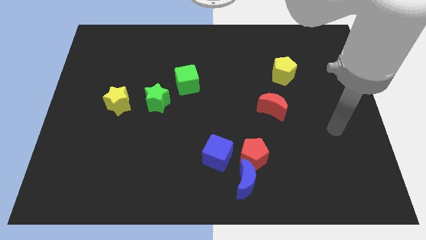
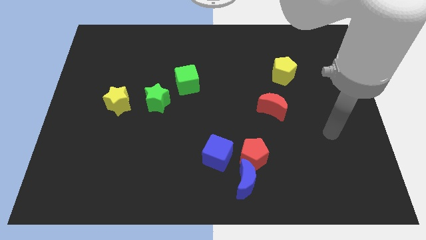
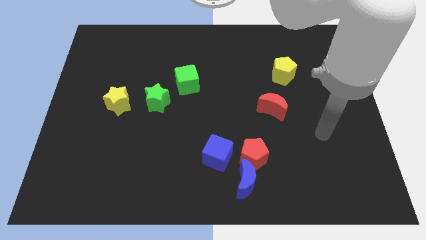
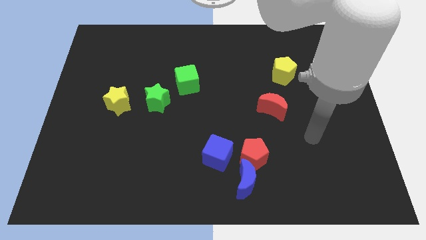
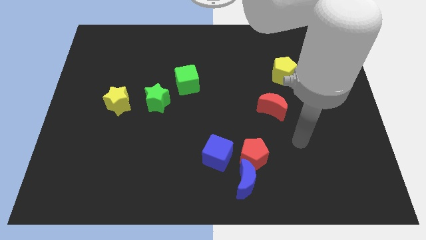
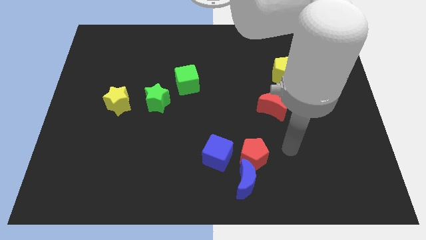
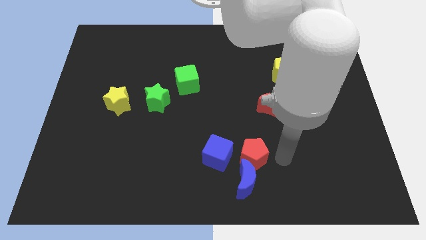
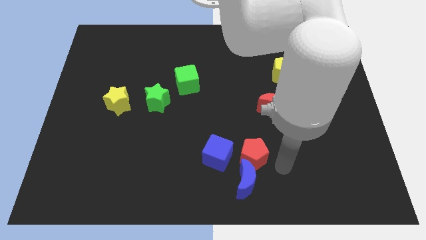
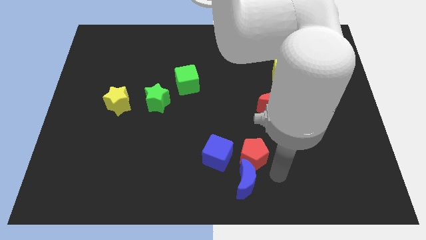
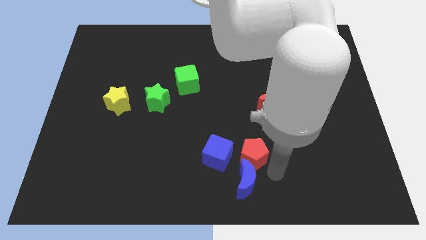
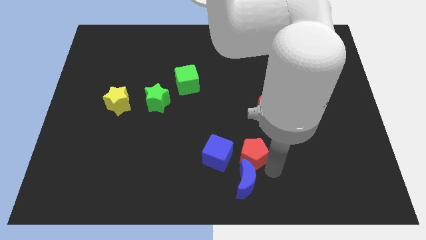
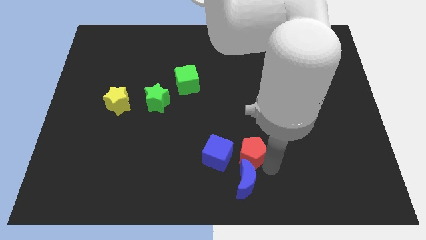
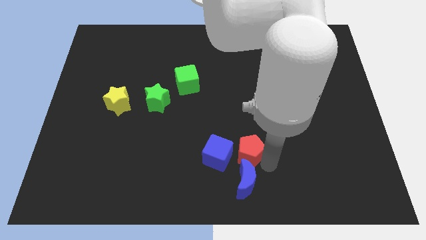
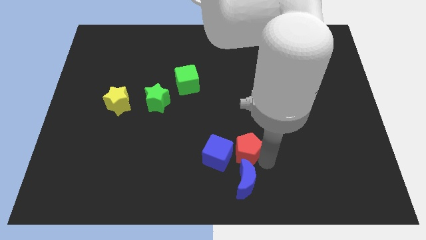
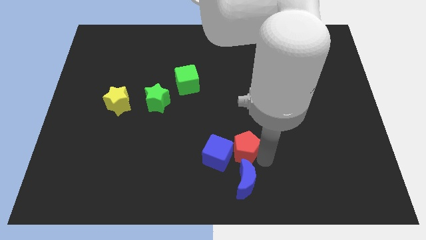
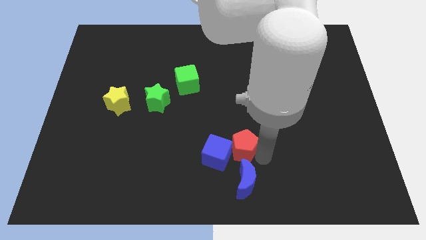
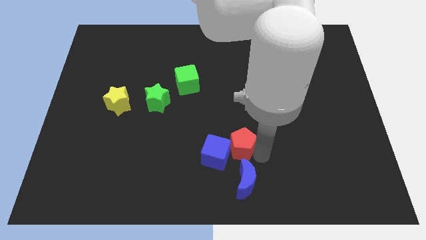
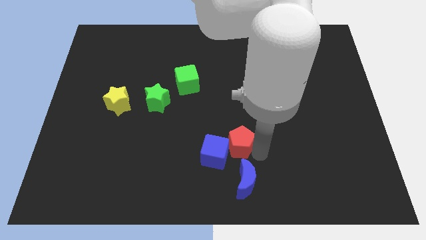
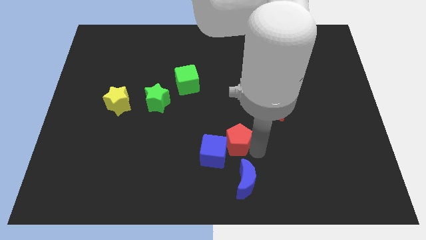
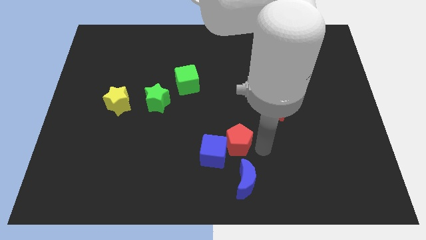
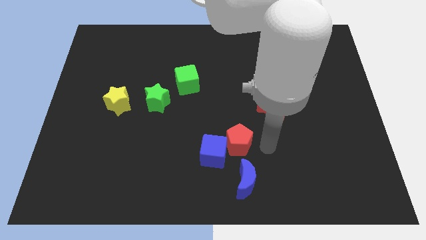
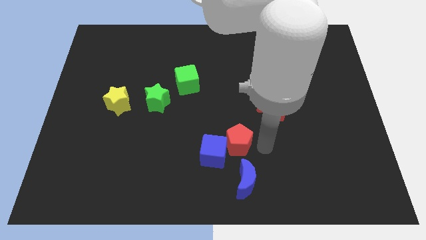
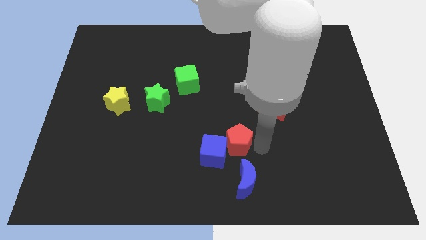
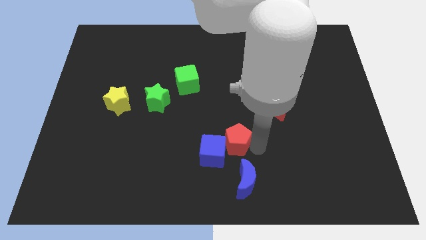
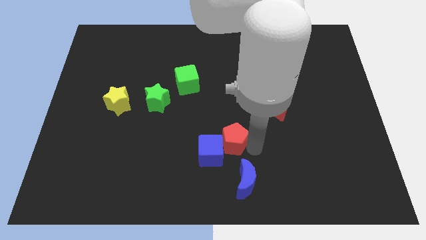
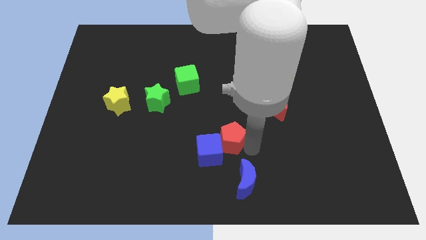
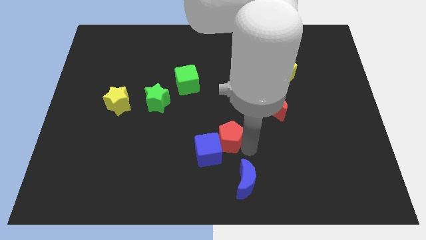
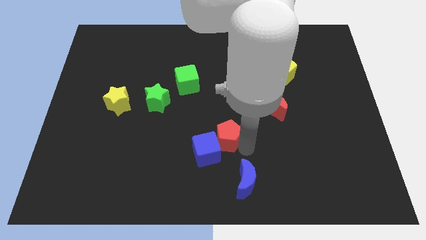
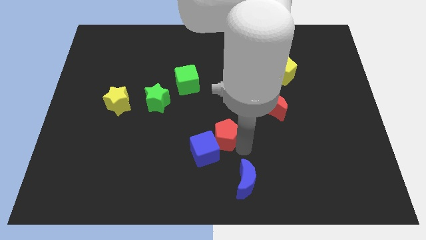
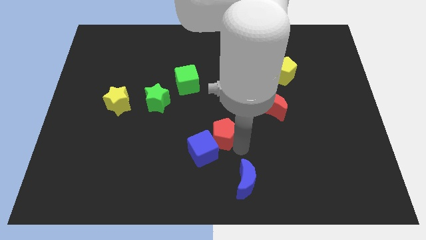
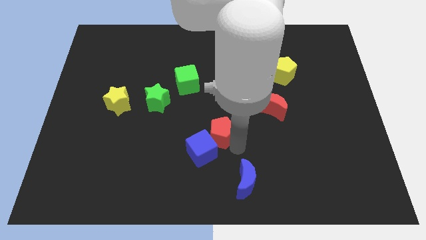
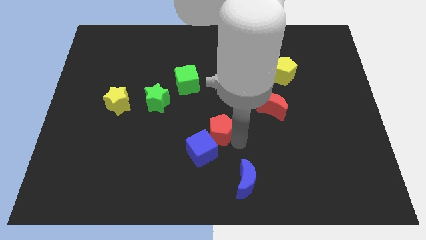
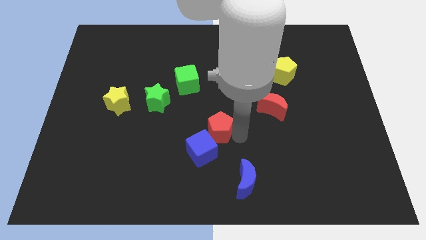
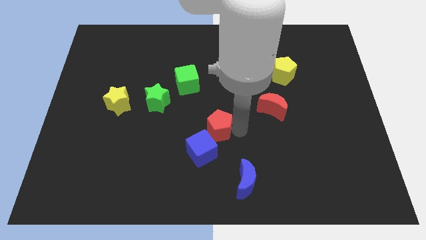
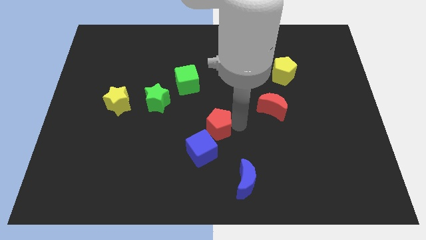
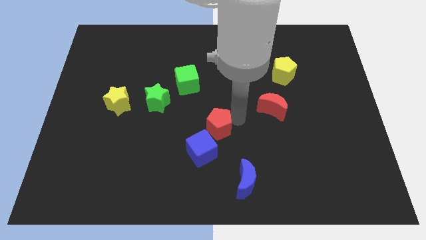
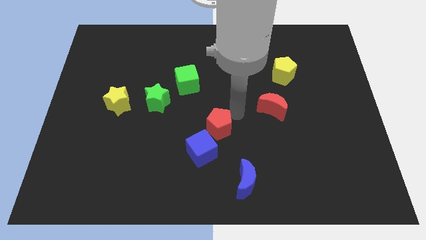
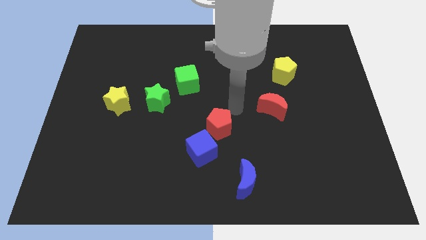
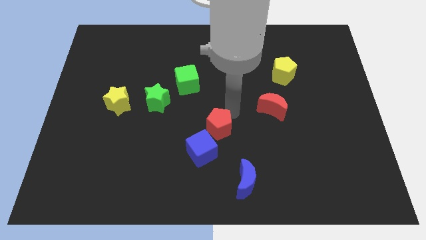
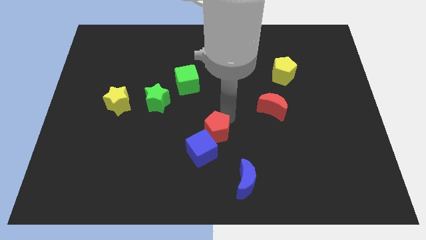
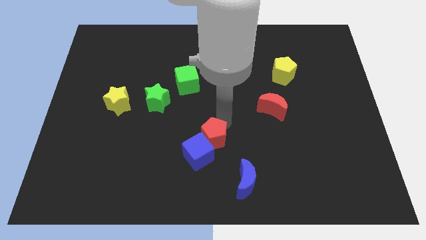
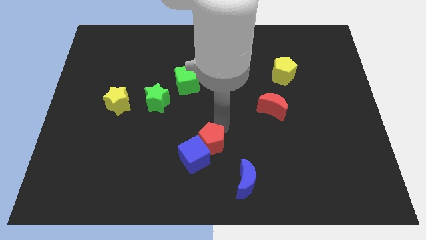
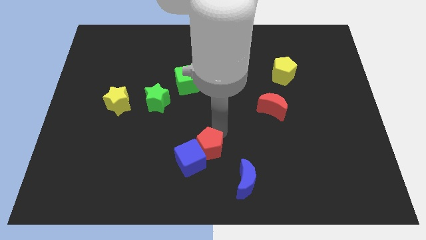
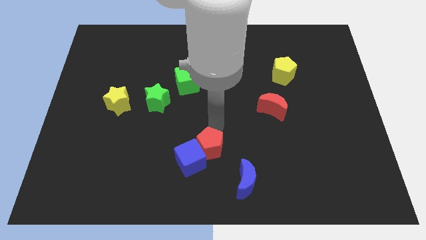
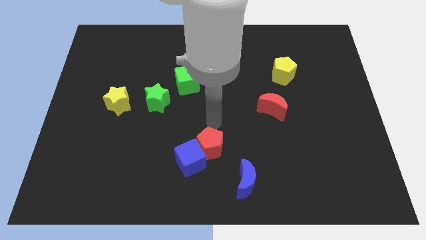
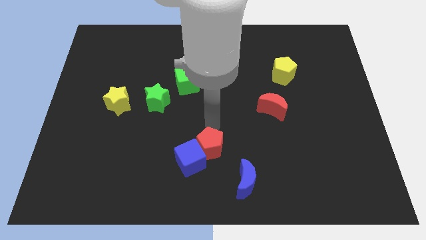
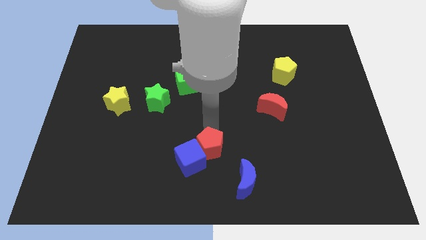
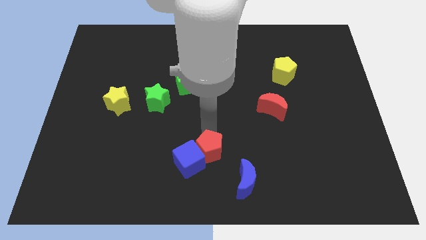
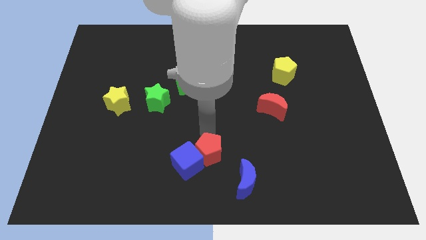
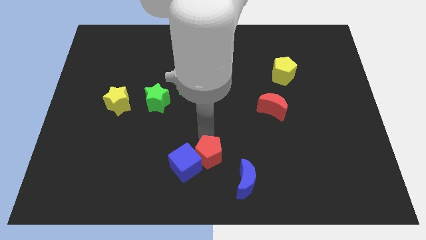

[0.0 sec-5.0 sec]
slide the red pentagon to the bottom

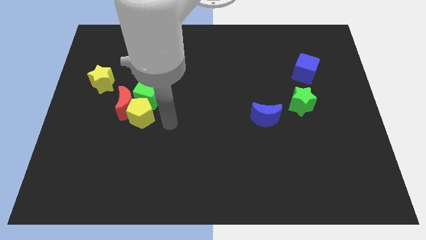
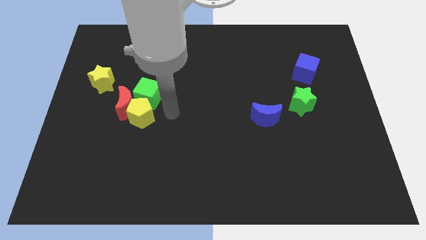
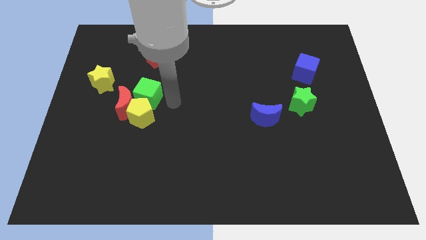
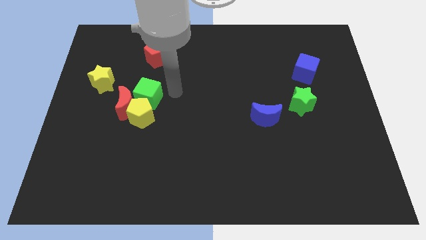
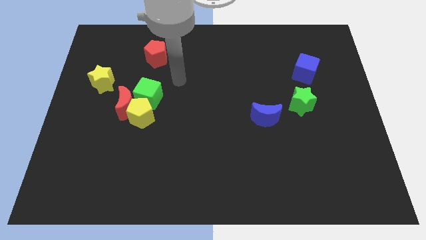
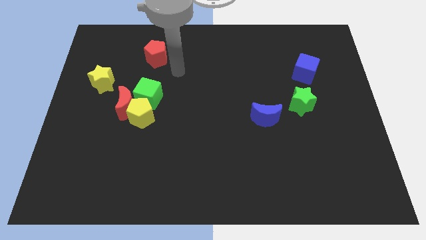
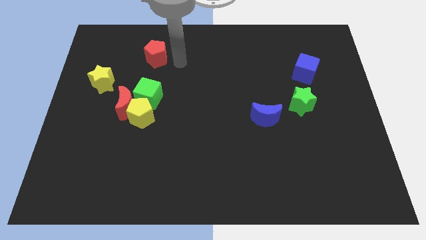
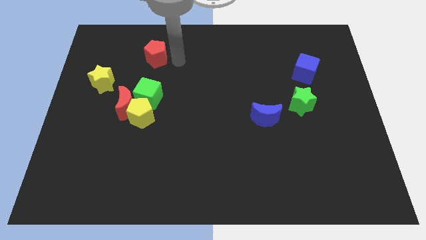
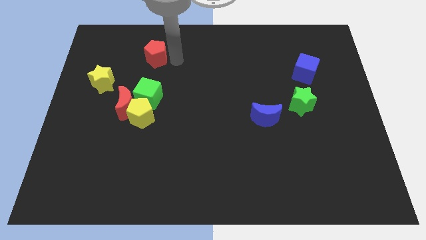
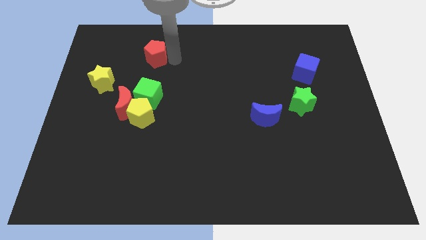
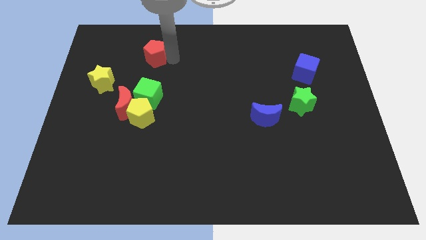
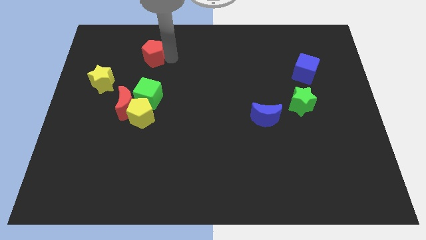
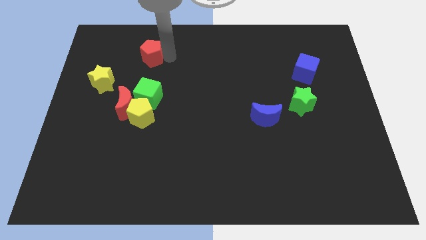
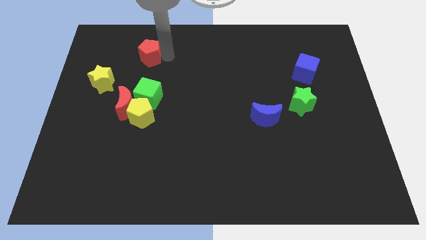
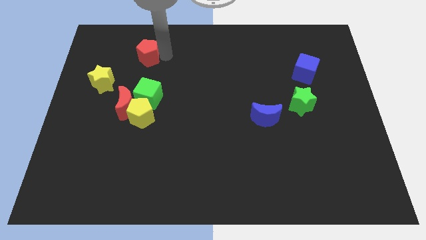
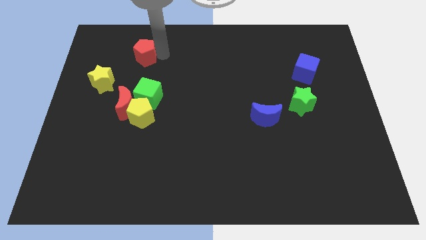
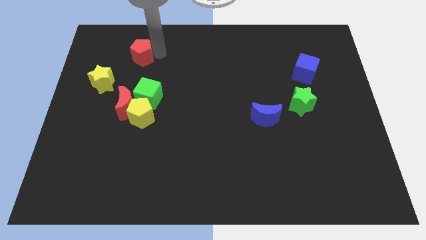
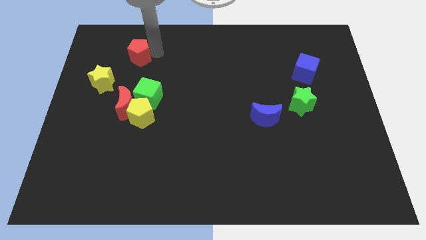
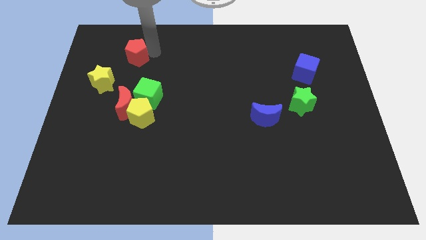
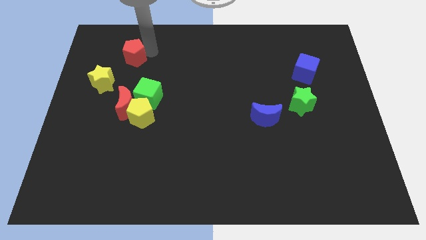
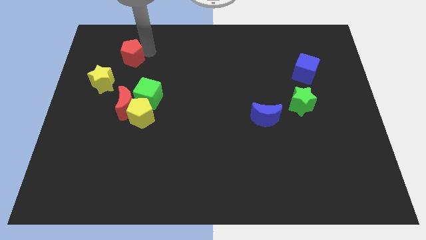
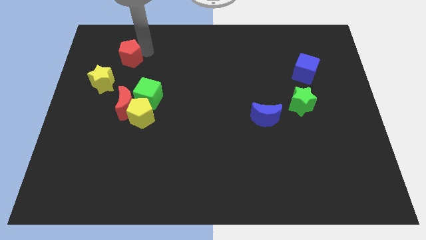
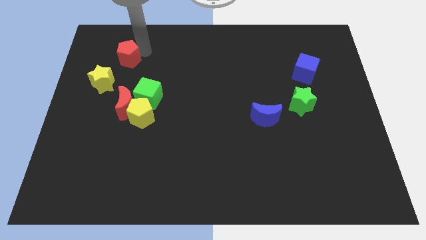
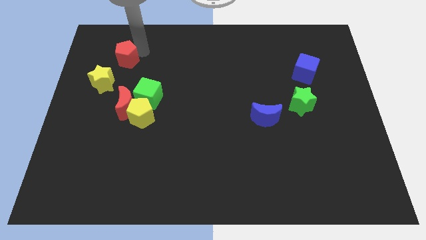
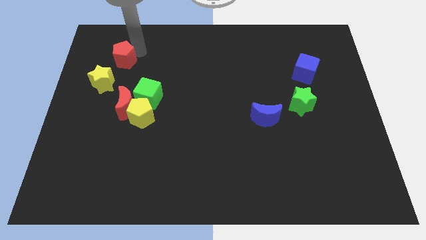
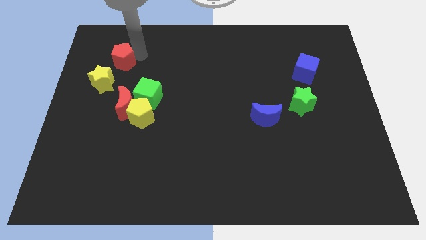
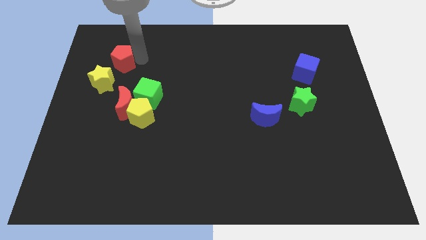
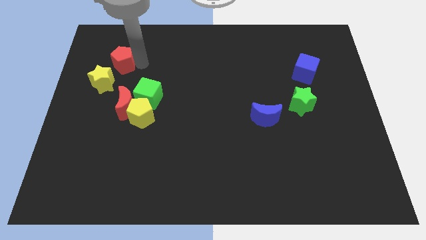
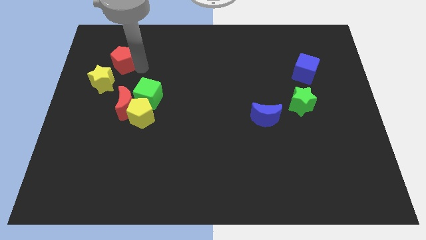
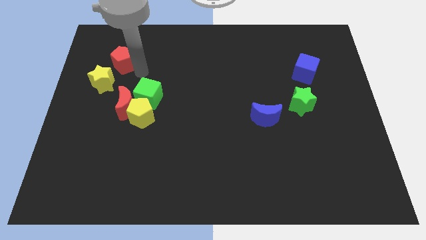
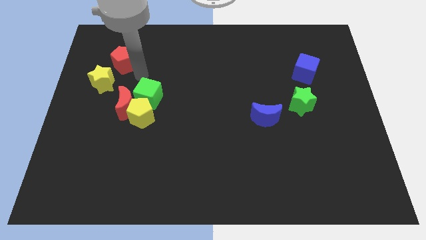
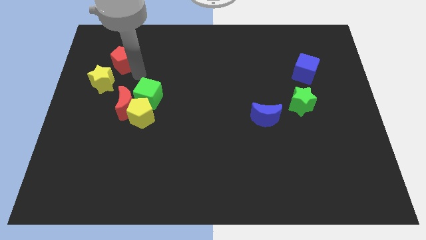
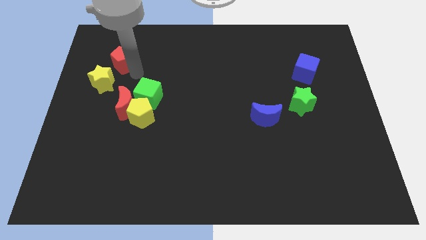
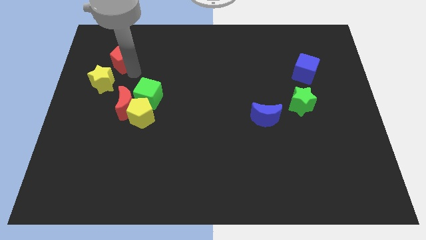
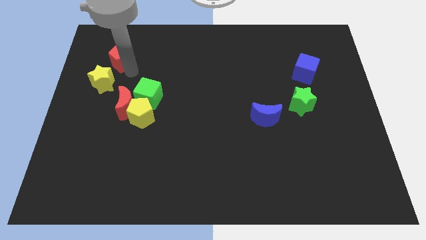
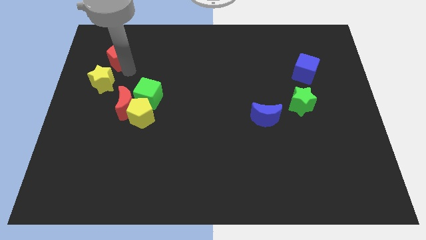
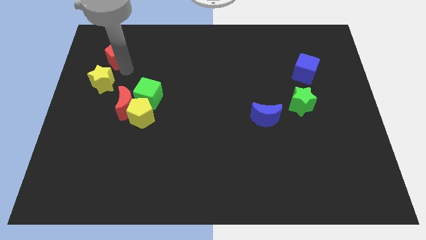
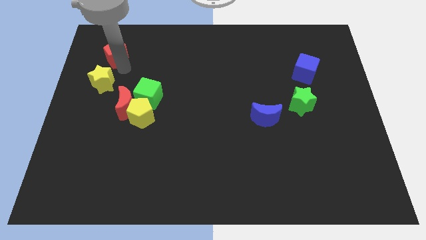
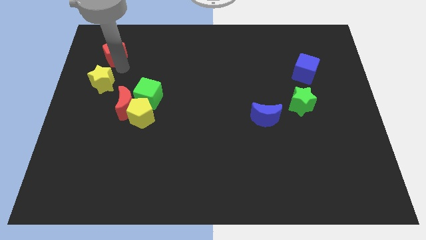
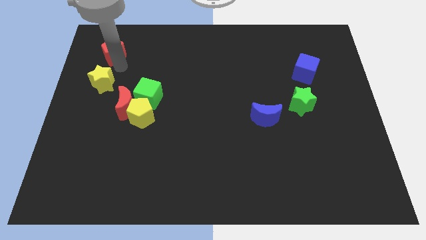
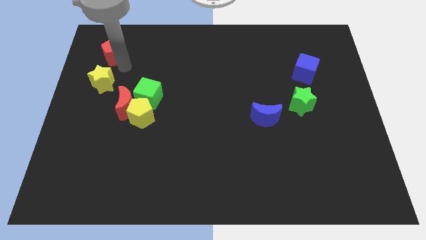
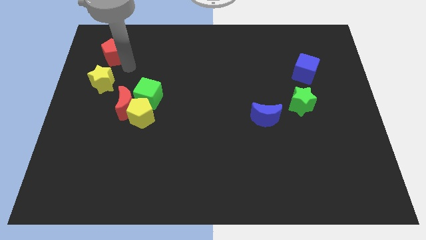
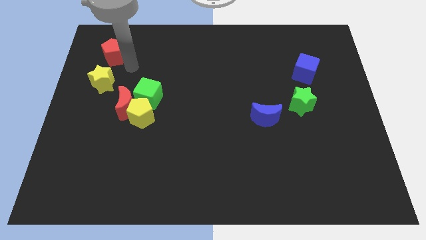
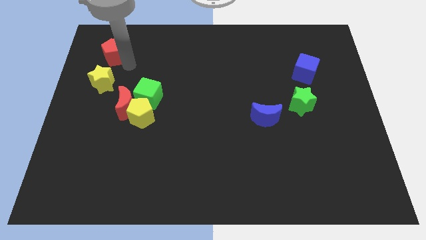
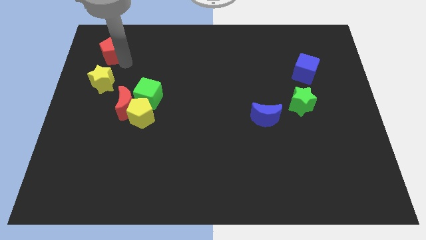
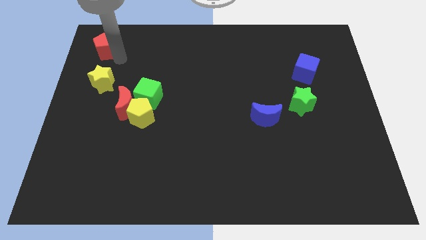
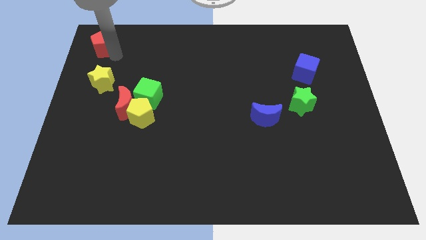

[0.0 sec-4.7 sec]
move the red pentagon to the upper left corner
